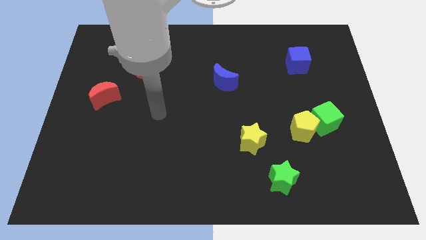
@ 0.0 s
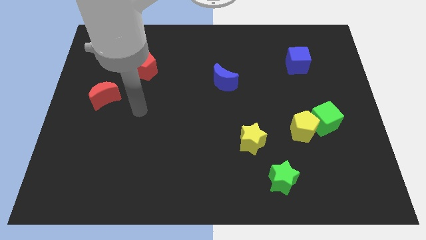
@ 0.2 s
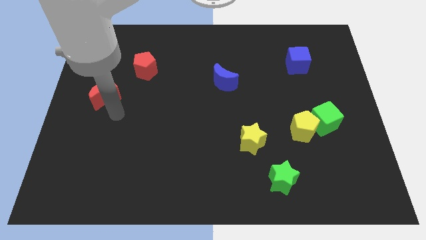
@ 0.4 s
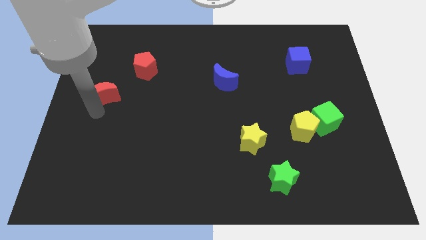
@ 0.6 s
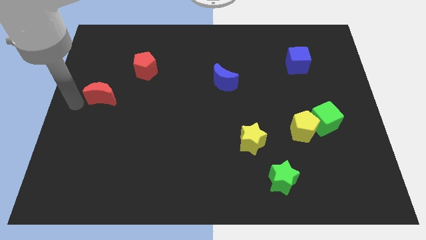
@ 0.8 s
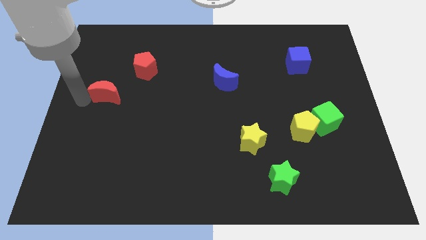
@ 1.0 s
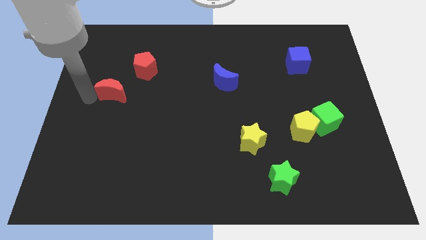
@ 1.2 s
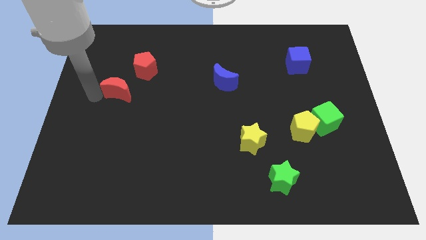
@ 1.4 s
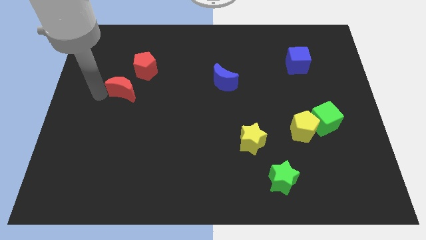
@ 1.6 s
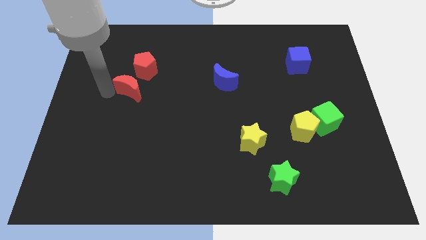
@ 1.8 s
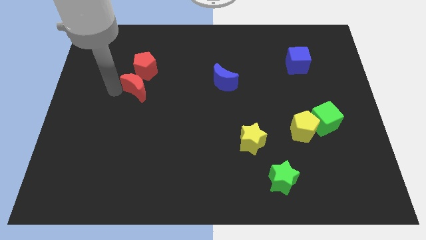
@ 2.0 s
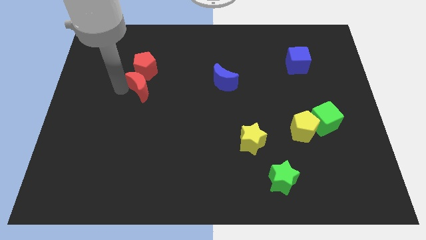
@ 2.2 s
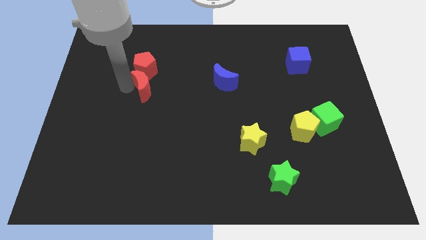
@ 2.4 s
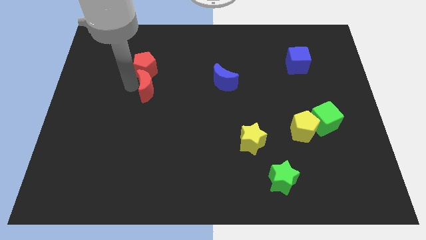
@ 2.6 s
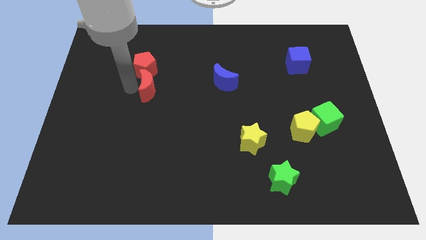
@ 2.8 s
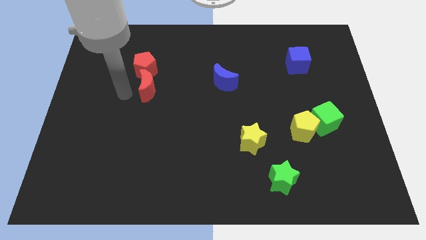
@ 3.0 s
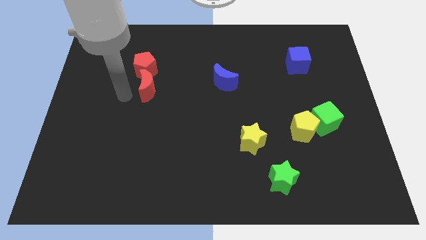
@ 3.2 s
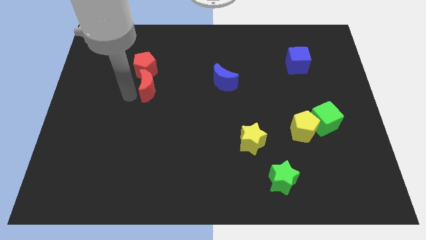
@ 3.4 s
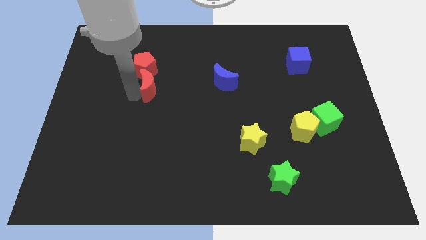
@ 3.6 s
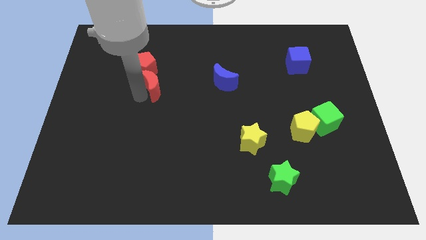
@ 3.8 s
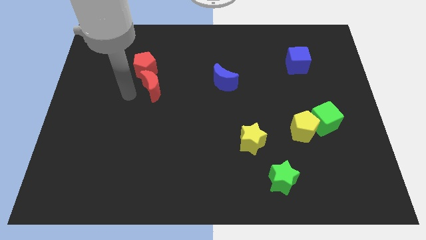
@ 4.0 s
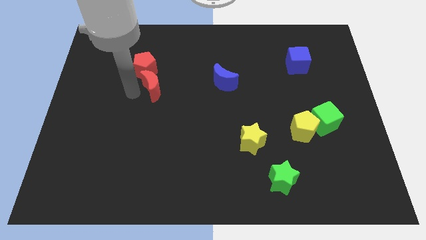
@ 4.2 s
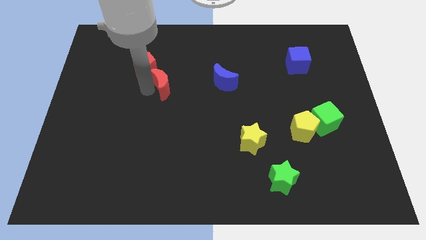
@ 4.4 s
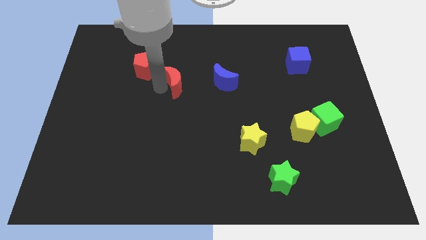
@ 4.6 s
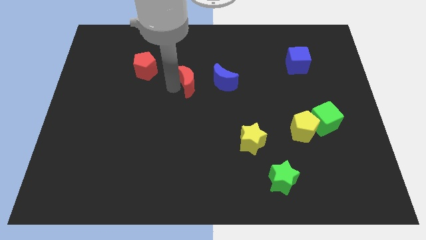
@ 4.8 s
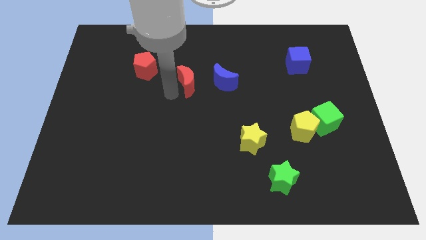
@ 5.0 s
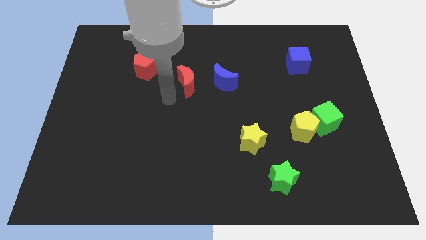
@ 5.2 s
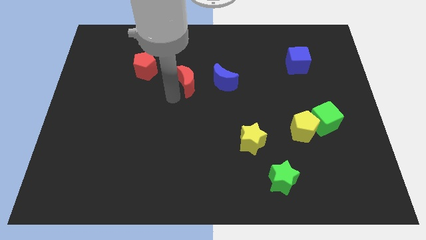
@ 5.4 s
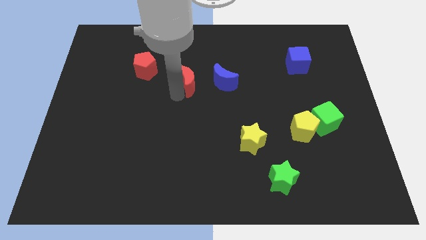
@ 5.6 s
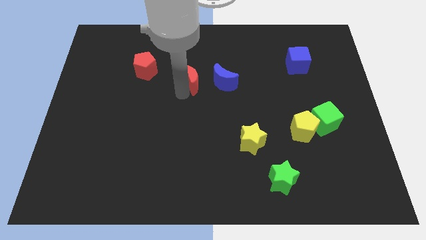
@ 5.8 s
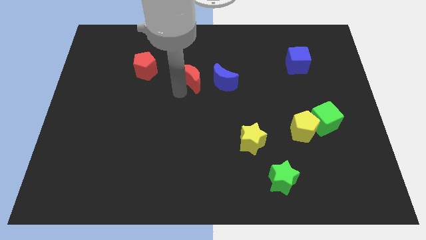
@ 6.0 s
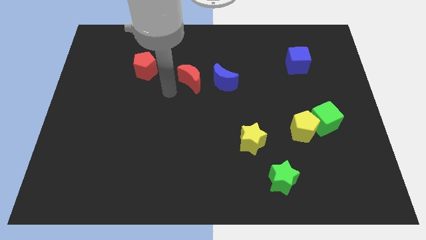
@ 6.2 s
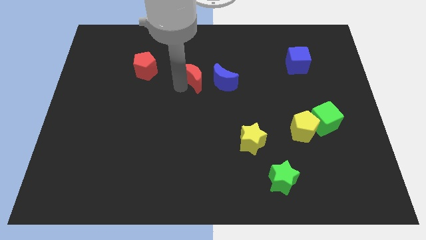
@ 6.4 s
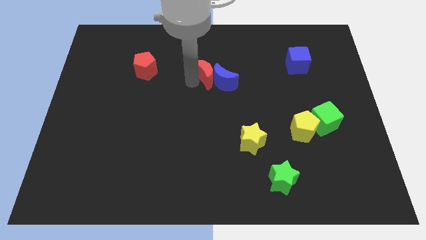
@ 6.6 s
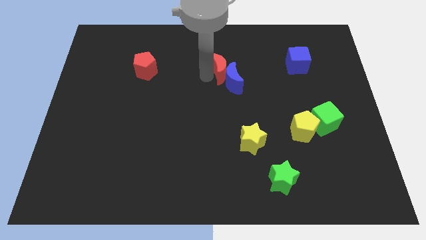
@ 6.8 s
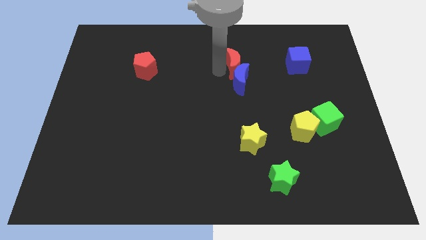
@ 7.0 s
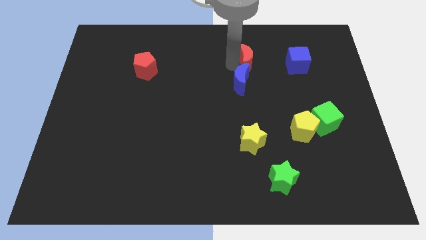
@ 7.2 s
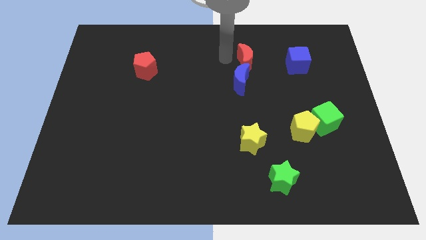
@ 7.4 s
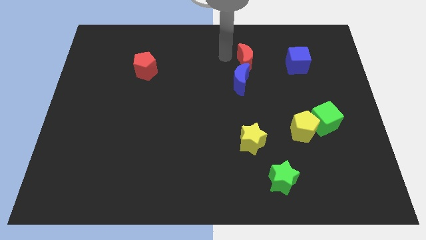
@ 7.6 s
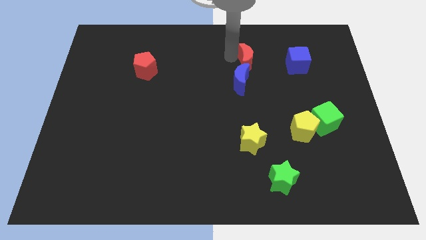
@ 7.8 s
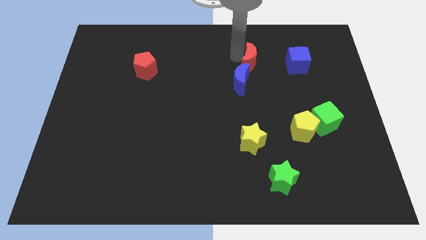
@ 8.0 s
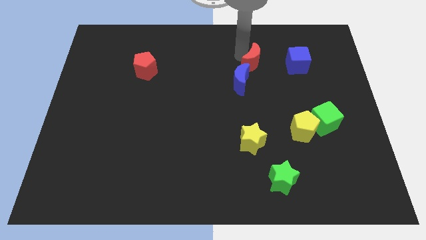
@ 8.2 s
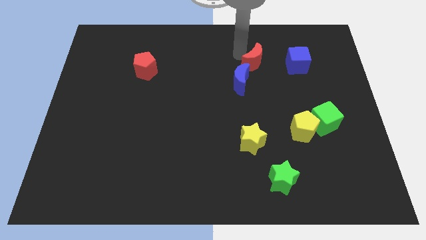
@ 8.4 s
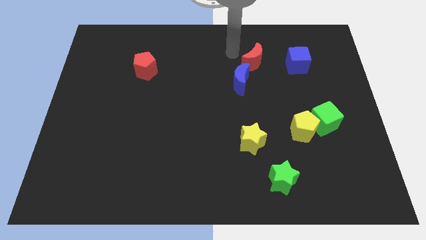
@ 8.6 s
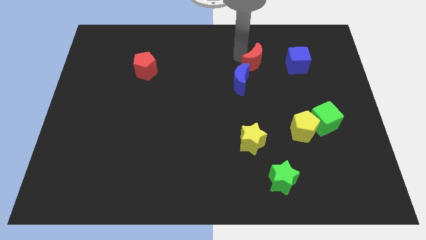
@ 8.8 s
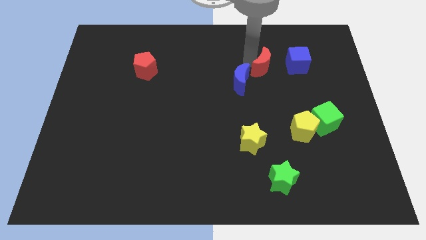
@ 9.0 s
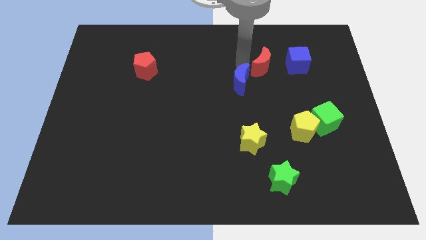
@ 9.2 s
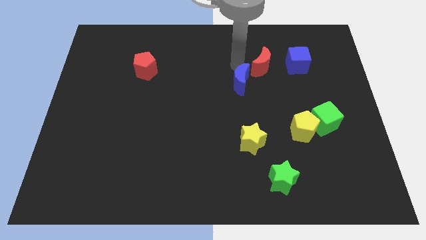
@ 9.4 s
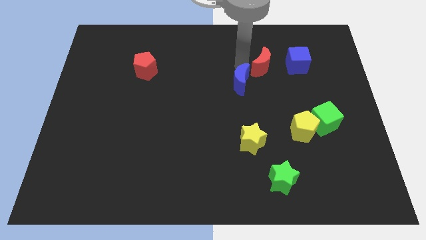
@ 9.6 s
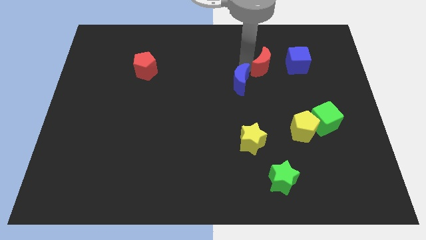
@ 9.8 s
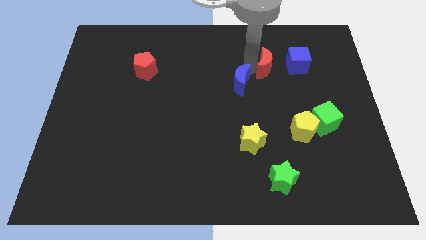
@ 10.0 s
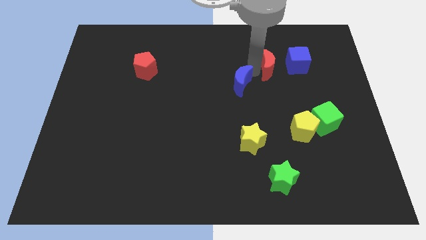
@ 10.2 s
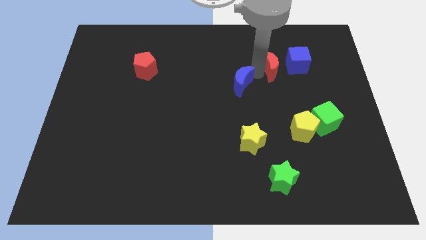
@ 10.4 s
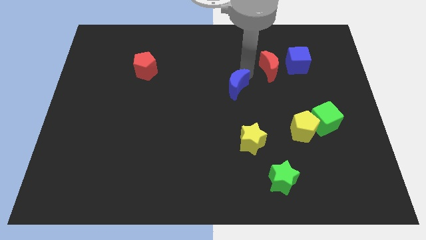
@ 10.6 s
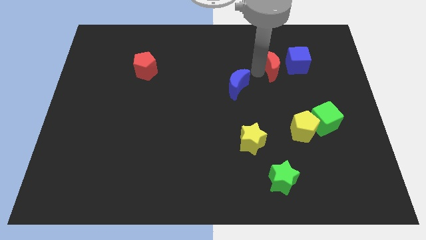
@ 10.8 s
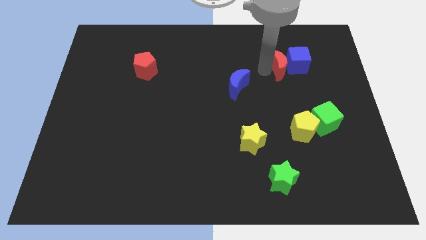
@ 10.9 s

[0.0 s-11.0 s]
push the red moon next to the blue cube

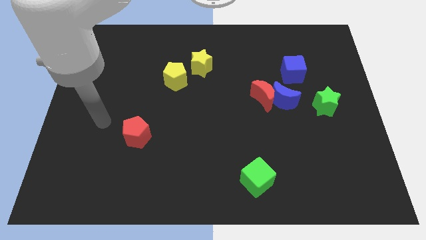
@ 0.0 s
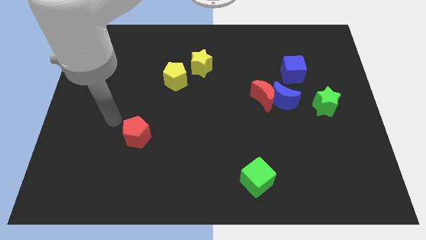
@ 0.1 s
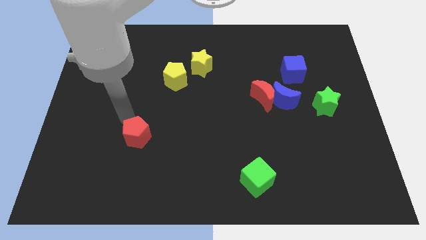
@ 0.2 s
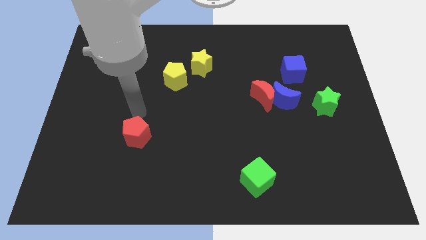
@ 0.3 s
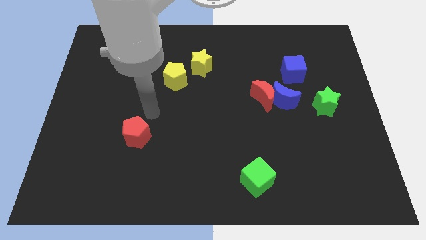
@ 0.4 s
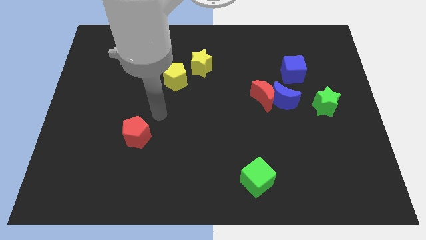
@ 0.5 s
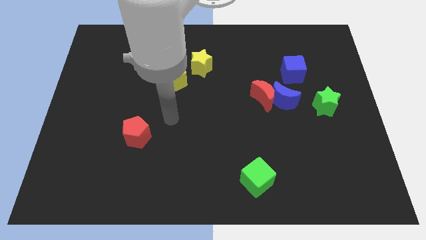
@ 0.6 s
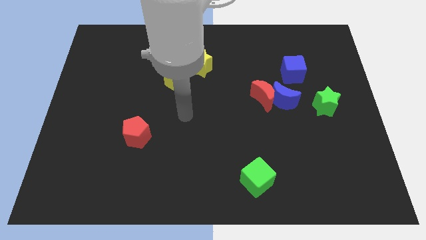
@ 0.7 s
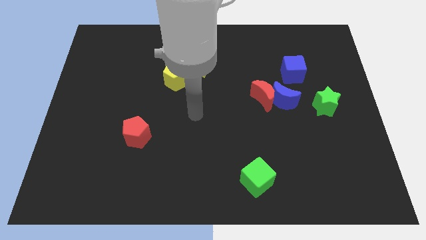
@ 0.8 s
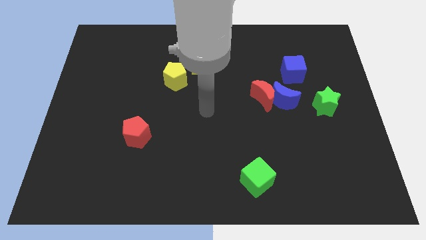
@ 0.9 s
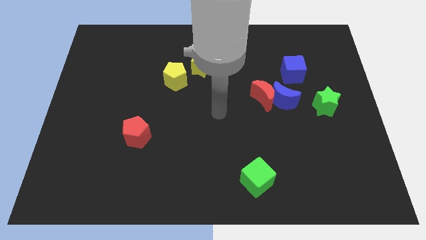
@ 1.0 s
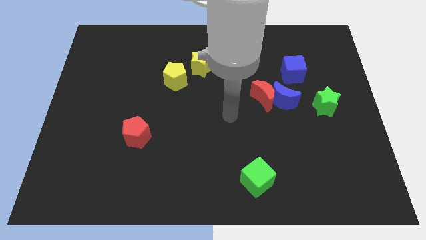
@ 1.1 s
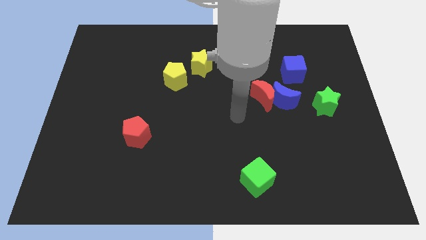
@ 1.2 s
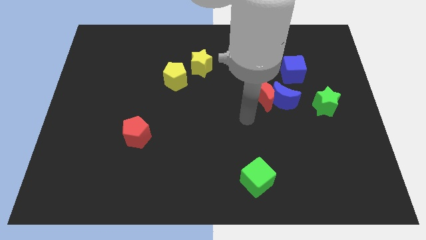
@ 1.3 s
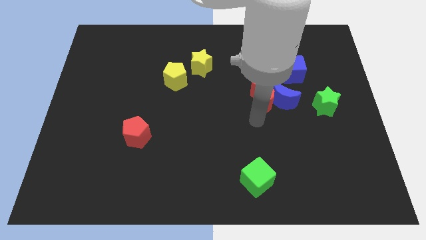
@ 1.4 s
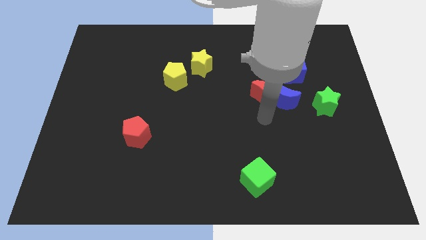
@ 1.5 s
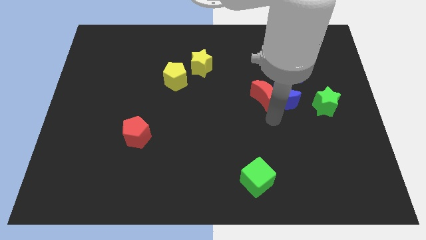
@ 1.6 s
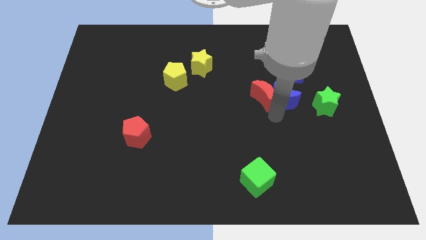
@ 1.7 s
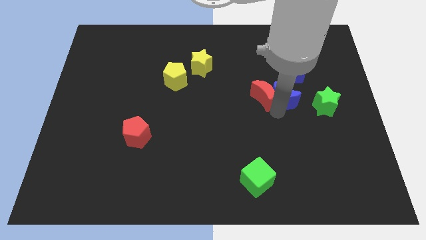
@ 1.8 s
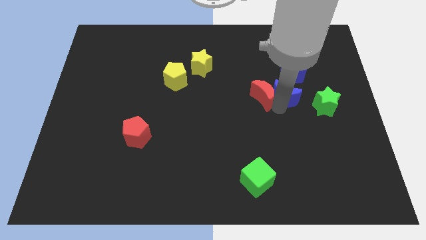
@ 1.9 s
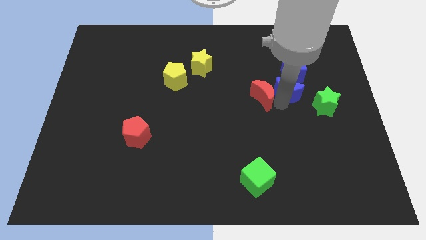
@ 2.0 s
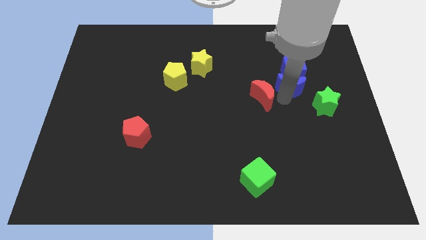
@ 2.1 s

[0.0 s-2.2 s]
slide the blue moon next to the blue cube
